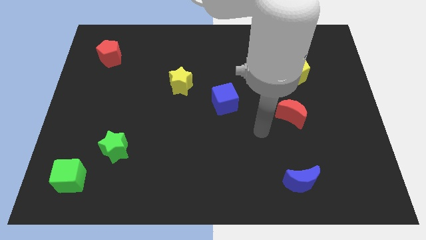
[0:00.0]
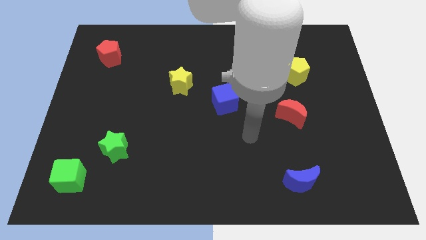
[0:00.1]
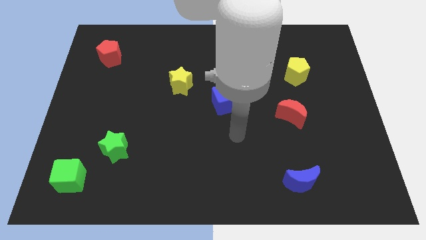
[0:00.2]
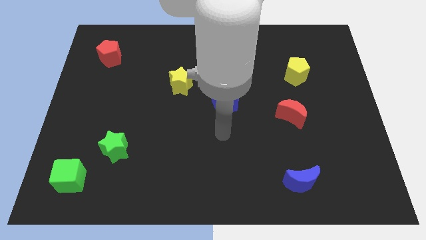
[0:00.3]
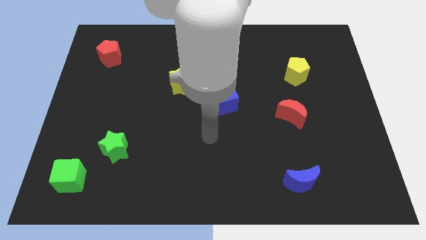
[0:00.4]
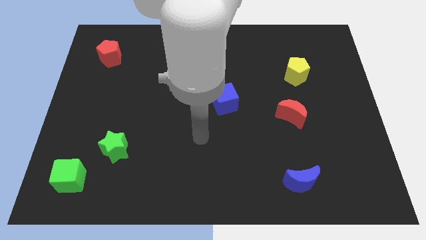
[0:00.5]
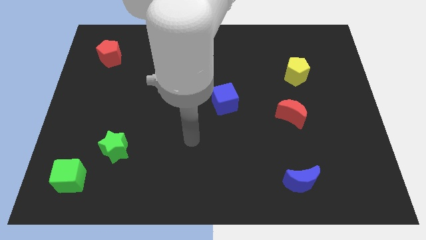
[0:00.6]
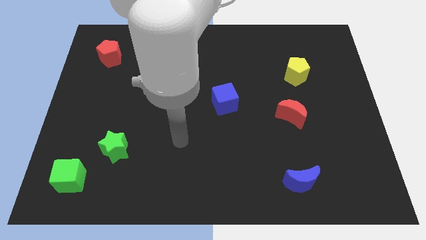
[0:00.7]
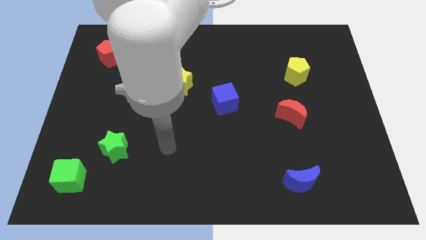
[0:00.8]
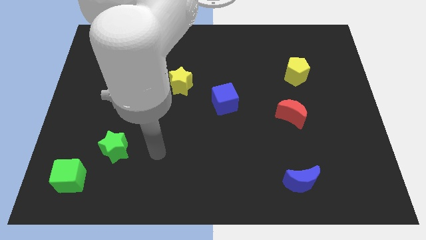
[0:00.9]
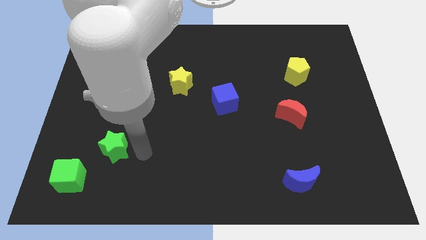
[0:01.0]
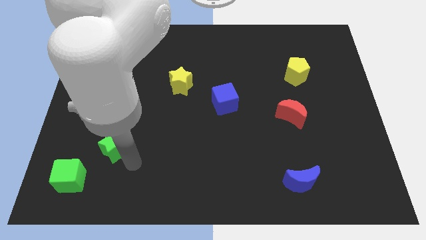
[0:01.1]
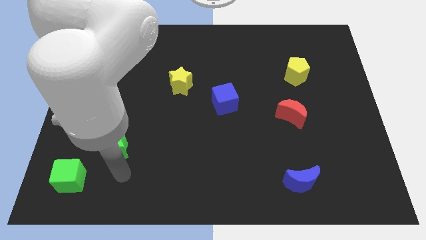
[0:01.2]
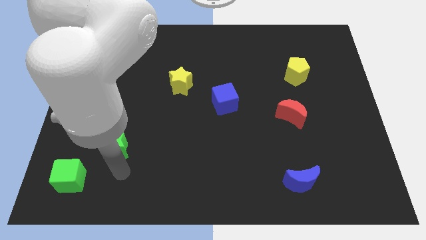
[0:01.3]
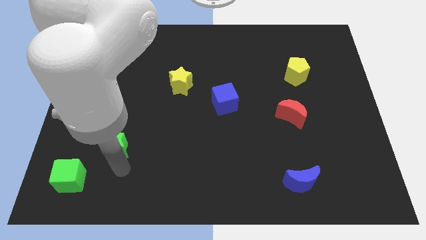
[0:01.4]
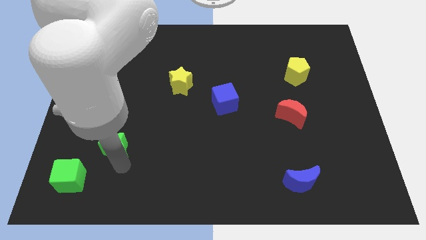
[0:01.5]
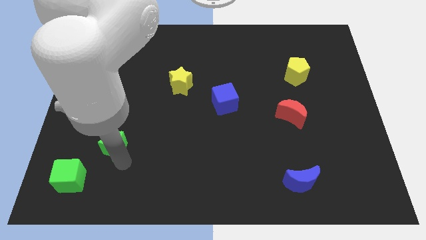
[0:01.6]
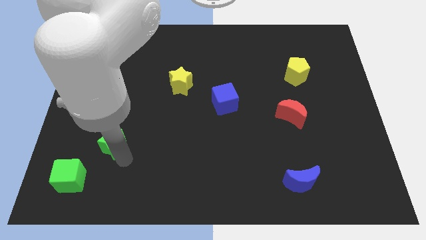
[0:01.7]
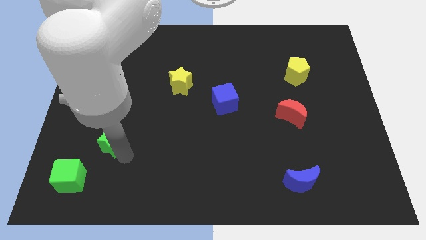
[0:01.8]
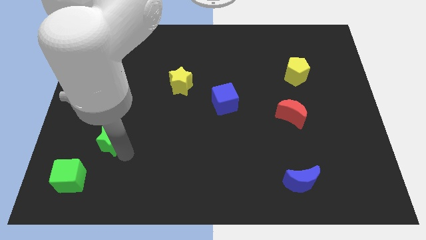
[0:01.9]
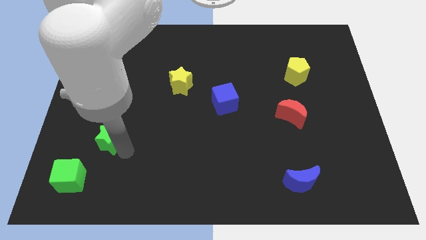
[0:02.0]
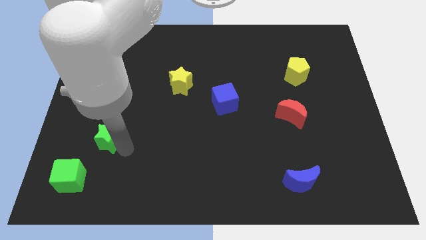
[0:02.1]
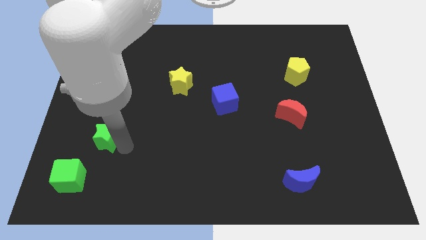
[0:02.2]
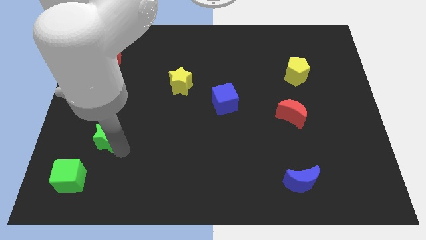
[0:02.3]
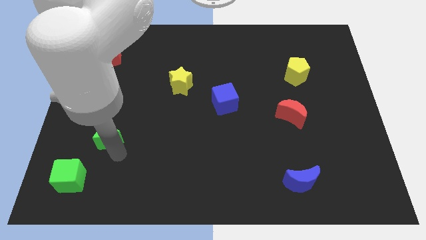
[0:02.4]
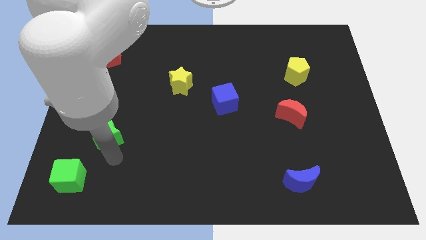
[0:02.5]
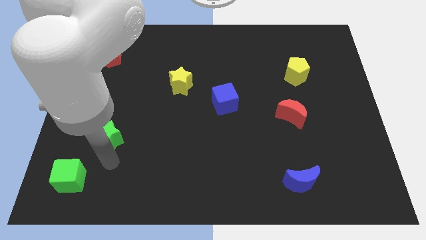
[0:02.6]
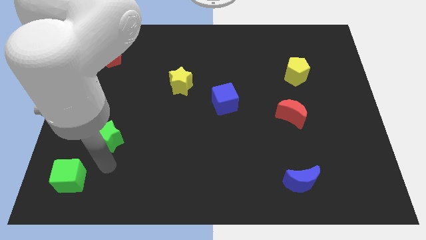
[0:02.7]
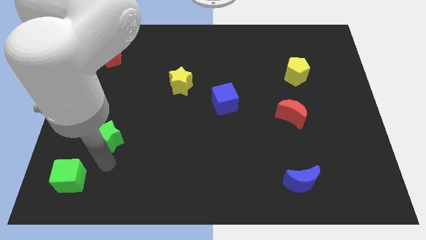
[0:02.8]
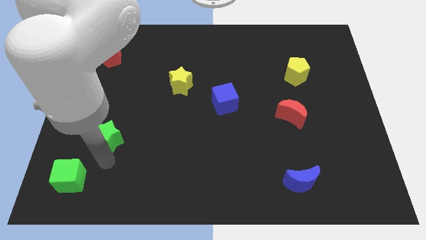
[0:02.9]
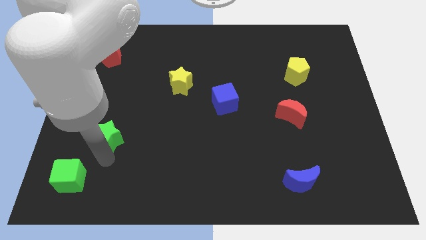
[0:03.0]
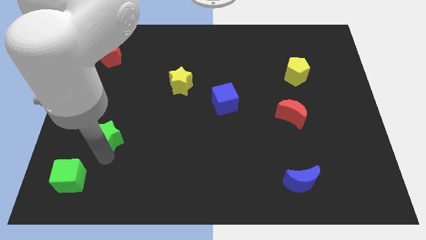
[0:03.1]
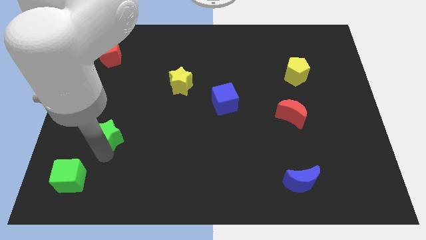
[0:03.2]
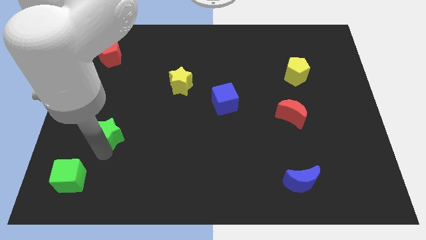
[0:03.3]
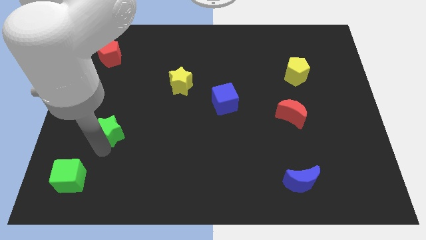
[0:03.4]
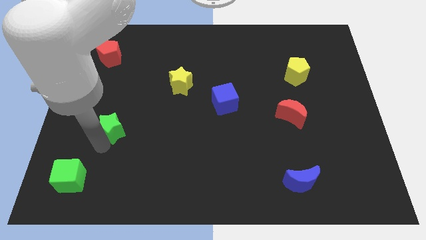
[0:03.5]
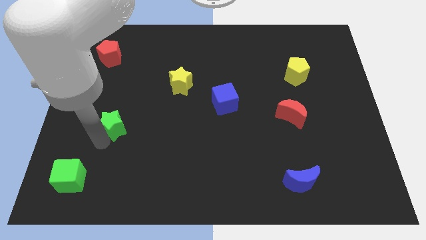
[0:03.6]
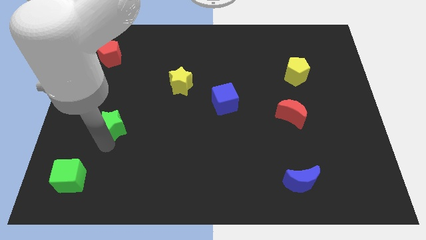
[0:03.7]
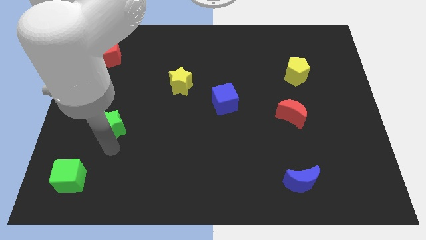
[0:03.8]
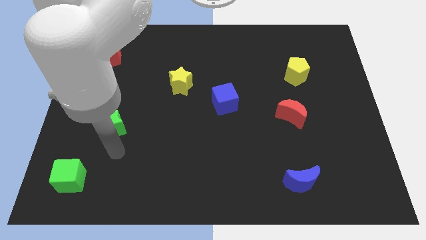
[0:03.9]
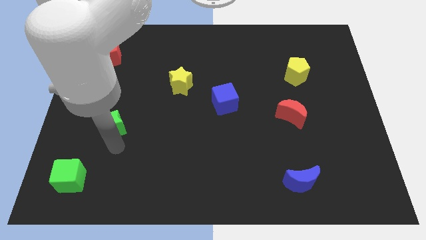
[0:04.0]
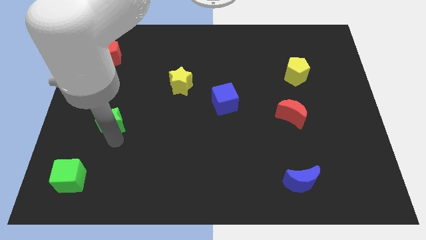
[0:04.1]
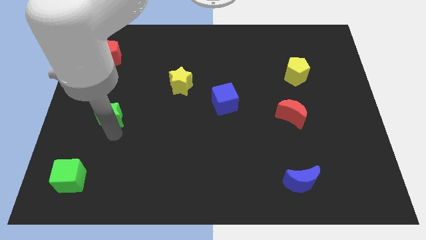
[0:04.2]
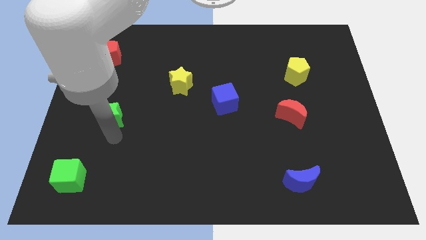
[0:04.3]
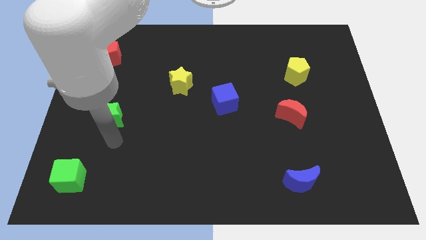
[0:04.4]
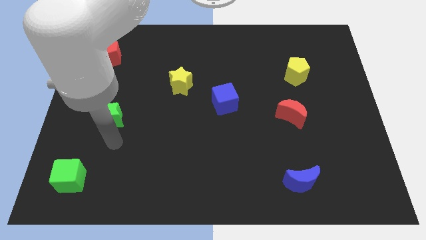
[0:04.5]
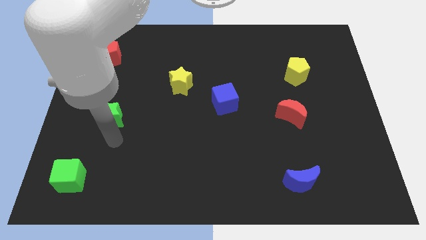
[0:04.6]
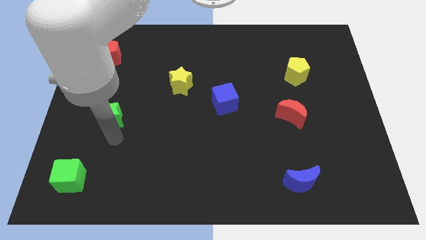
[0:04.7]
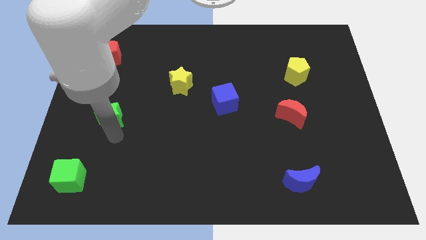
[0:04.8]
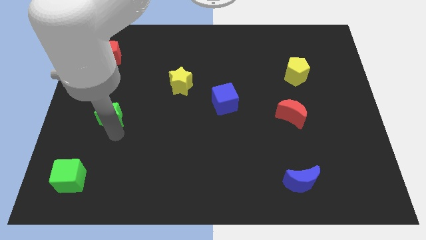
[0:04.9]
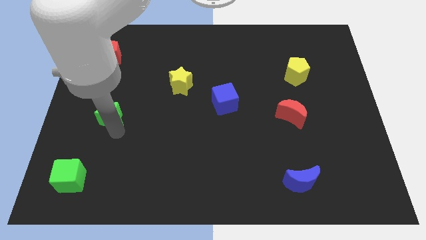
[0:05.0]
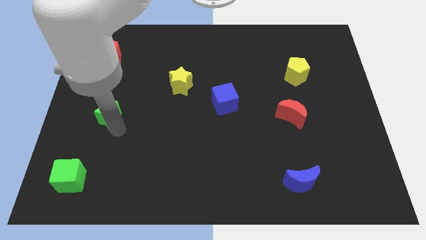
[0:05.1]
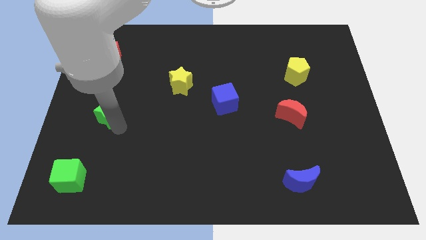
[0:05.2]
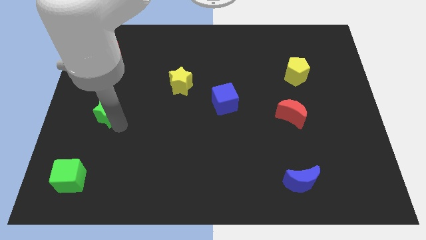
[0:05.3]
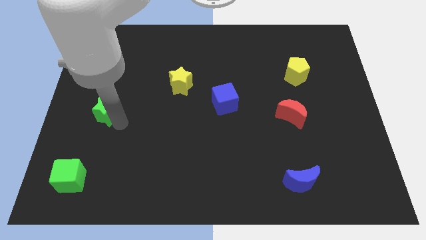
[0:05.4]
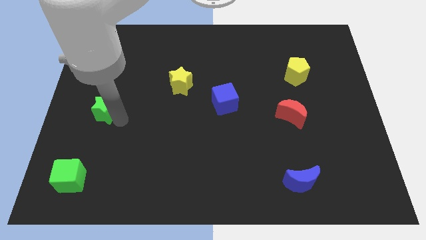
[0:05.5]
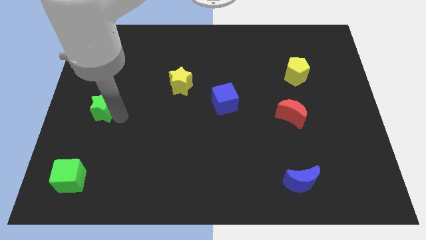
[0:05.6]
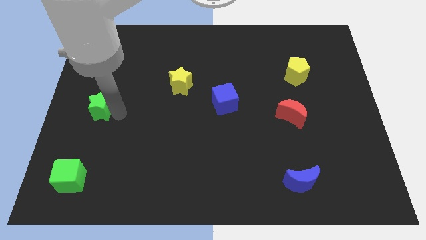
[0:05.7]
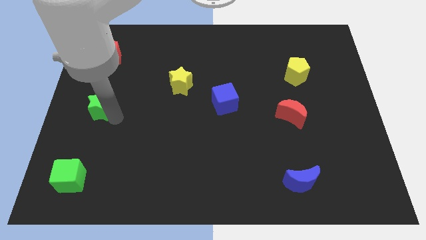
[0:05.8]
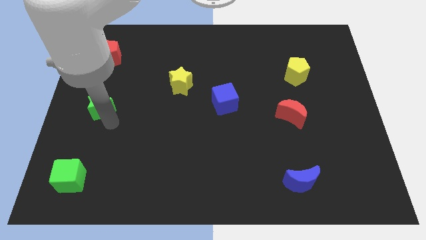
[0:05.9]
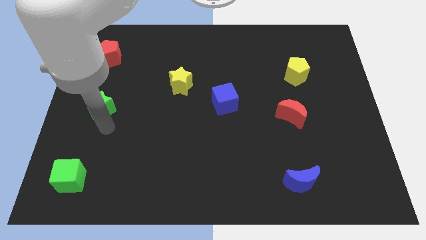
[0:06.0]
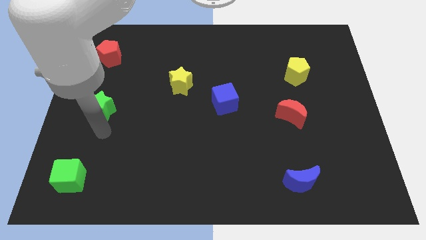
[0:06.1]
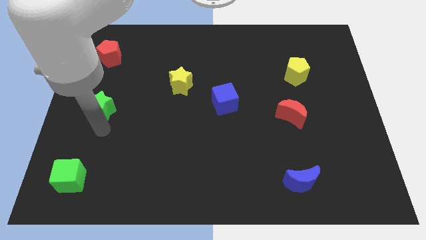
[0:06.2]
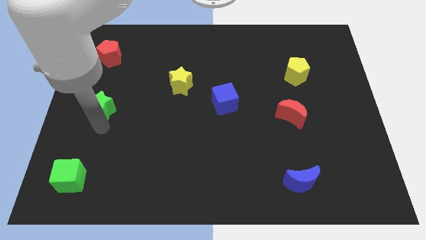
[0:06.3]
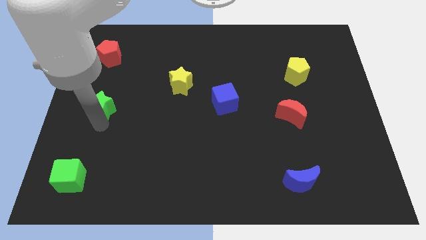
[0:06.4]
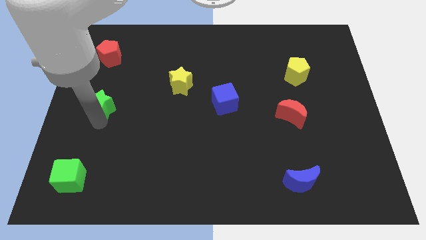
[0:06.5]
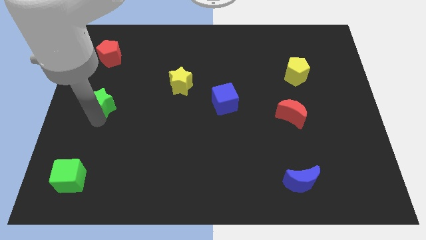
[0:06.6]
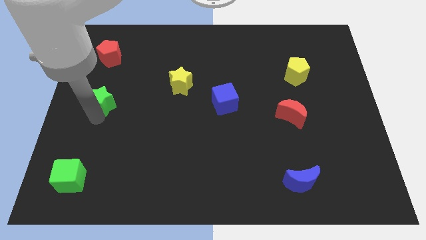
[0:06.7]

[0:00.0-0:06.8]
slide the green star to the bottom side of the red pentagon

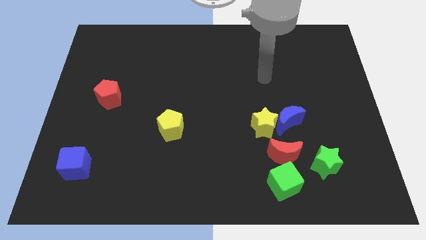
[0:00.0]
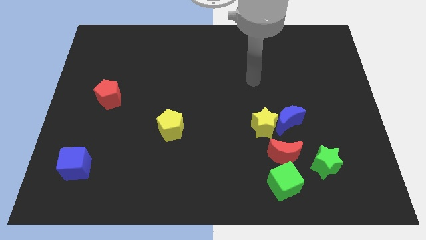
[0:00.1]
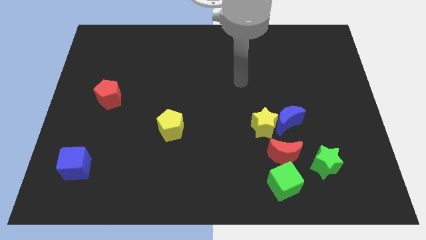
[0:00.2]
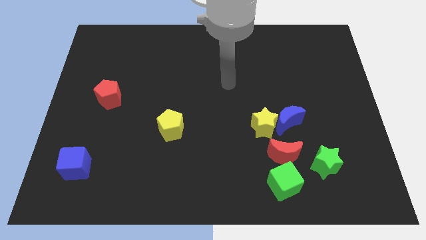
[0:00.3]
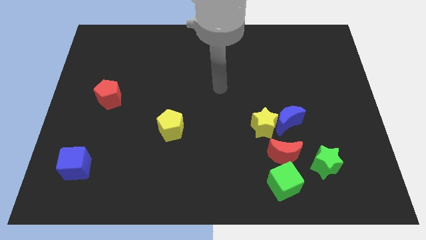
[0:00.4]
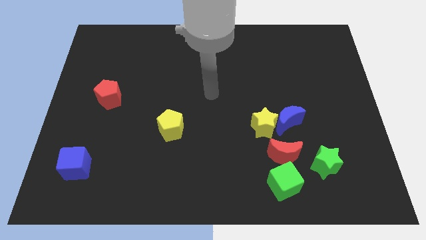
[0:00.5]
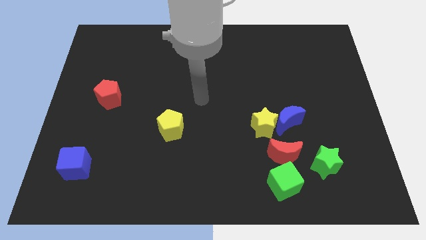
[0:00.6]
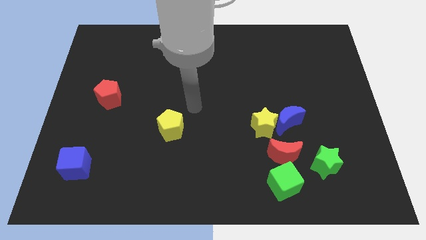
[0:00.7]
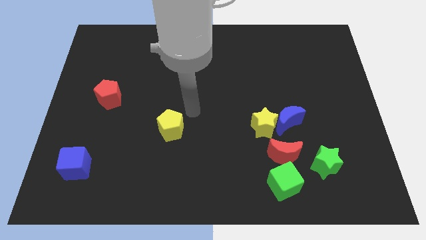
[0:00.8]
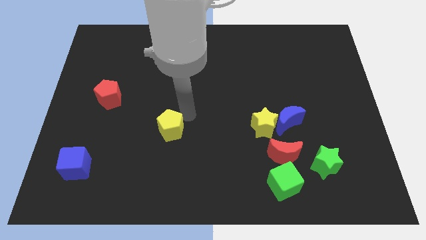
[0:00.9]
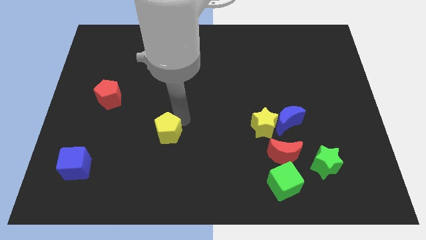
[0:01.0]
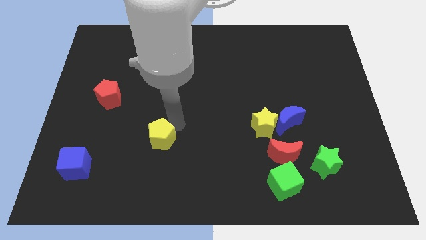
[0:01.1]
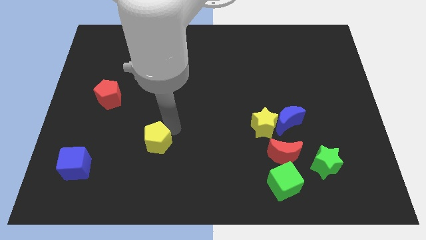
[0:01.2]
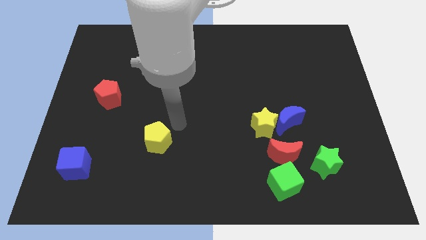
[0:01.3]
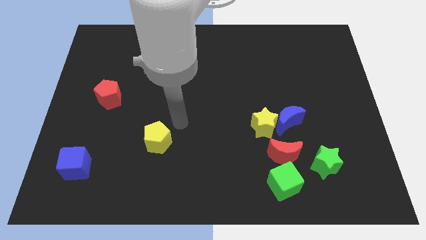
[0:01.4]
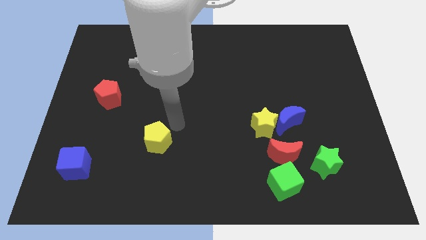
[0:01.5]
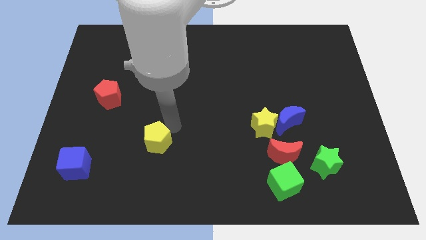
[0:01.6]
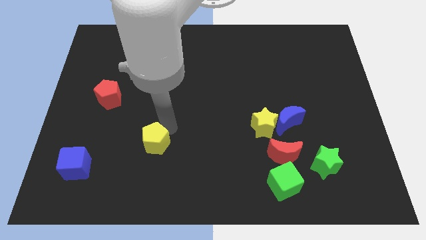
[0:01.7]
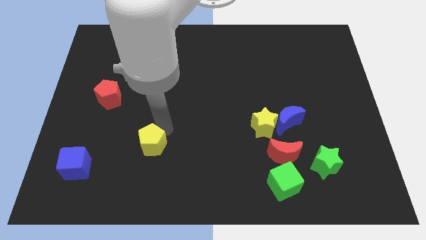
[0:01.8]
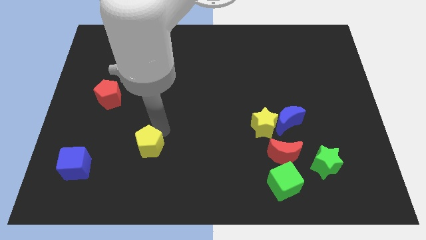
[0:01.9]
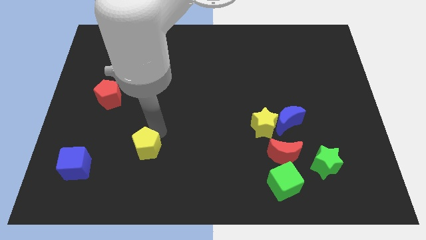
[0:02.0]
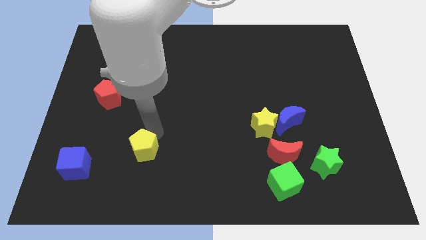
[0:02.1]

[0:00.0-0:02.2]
slide the yellow pentagon to the right of the blue cube
